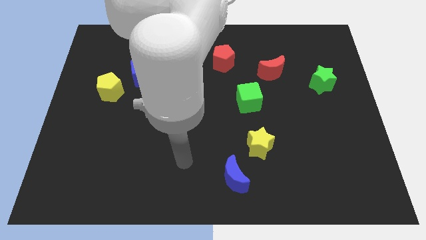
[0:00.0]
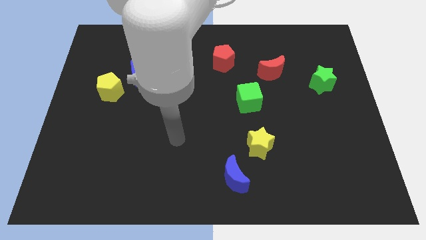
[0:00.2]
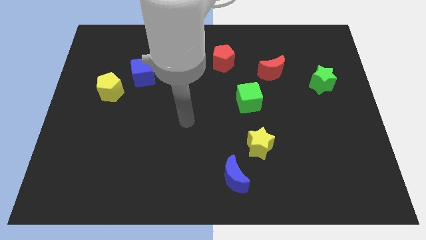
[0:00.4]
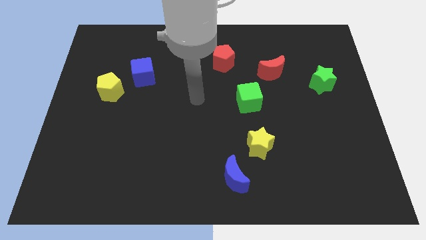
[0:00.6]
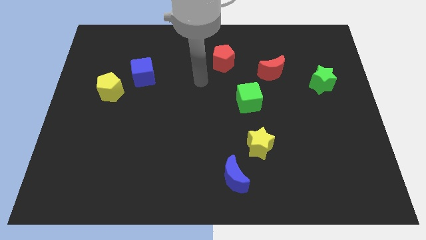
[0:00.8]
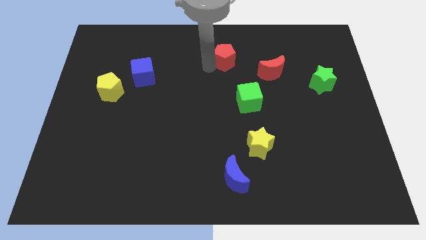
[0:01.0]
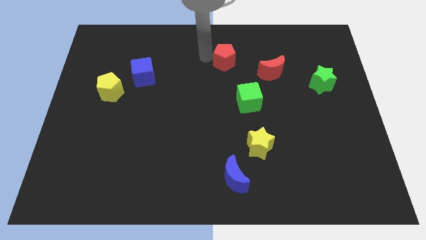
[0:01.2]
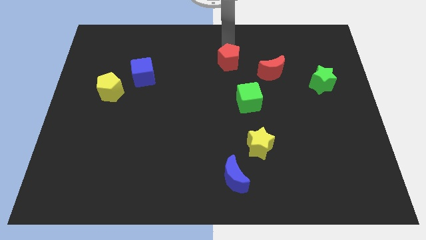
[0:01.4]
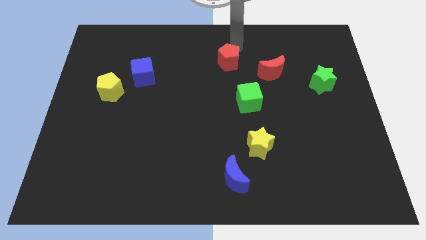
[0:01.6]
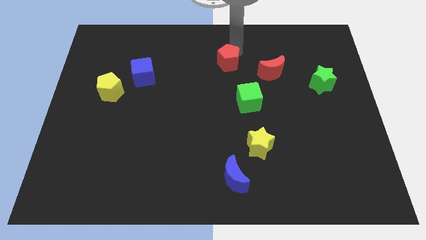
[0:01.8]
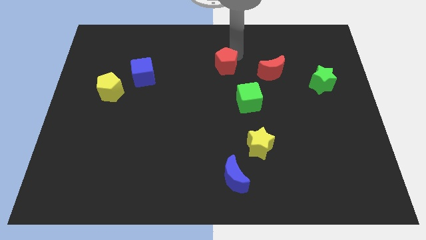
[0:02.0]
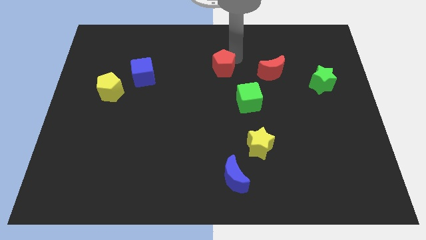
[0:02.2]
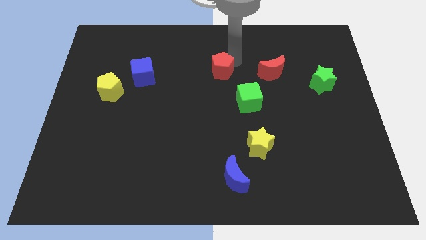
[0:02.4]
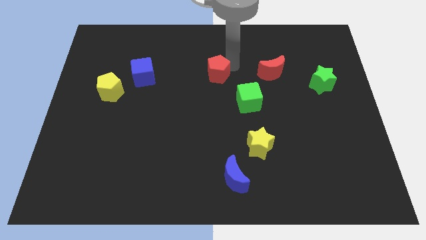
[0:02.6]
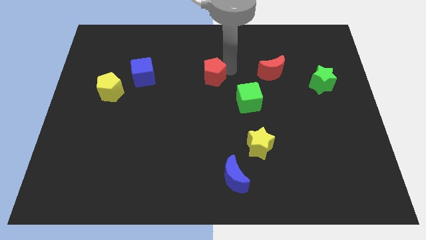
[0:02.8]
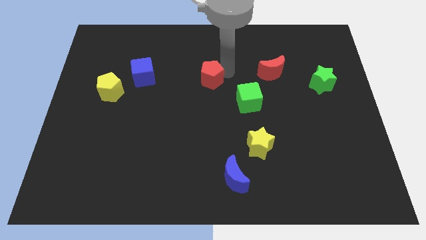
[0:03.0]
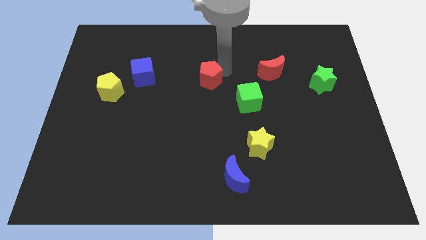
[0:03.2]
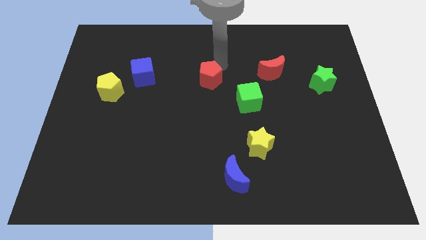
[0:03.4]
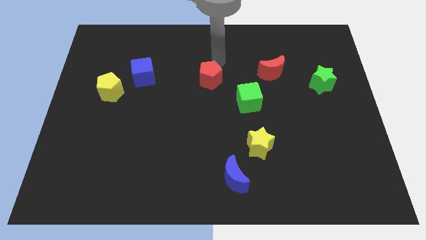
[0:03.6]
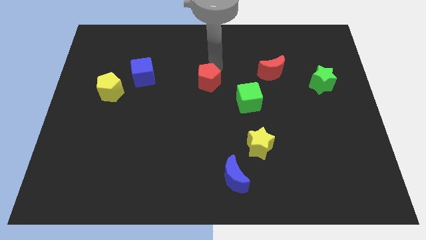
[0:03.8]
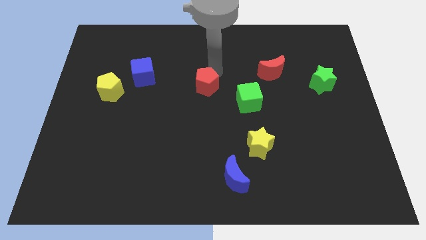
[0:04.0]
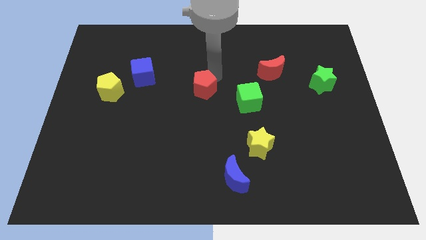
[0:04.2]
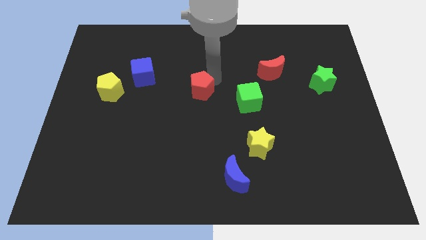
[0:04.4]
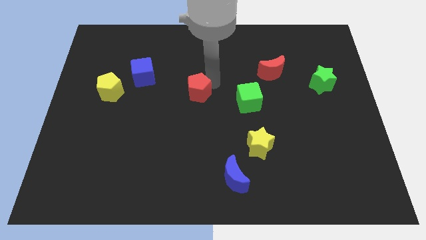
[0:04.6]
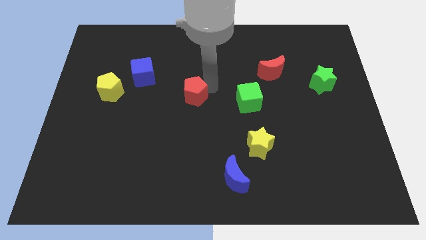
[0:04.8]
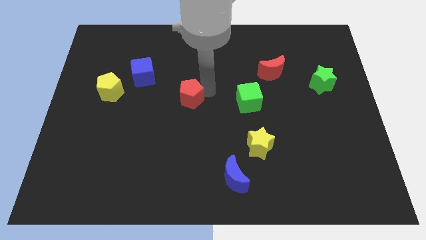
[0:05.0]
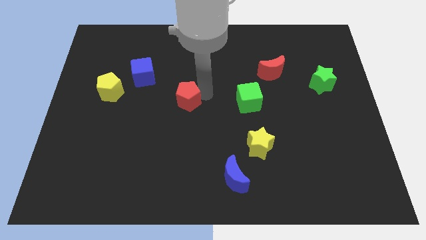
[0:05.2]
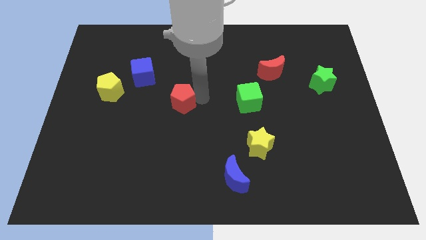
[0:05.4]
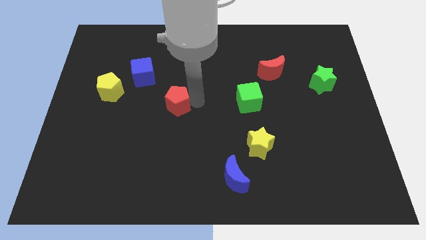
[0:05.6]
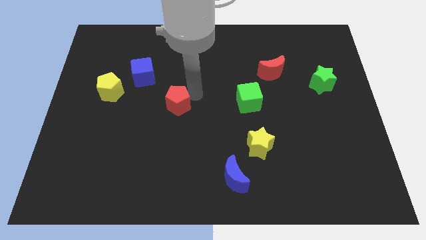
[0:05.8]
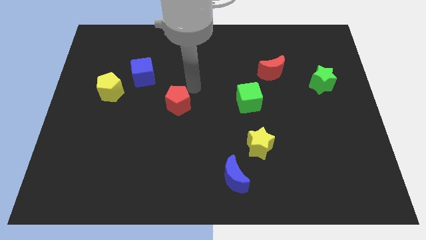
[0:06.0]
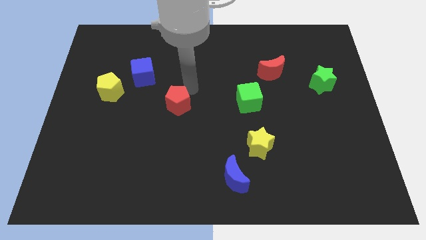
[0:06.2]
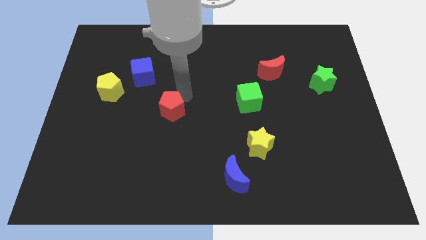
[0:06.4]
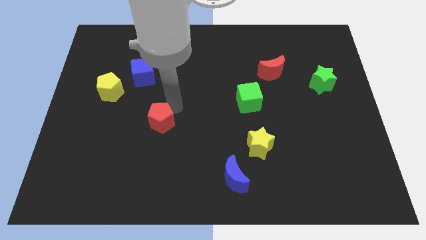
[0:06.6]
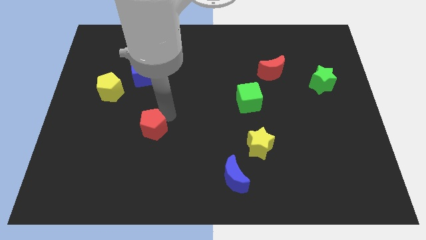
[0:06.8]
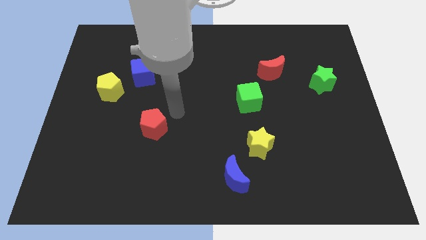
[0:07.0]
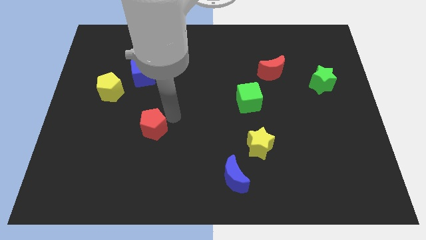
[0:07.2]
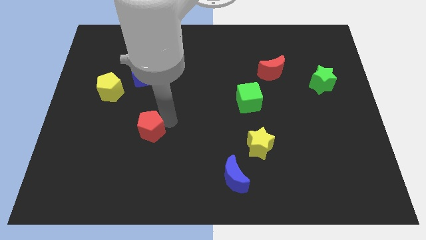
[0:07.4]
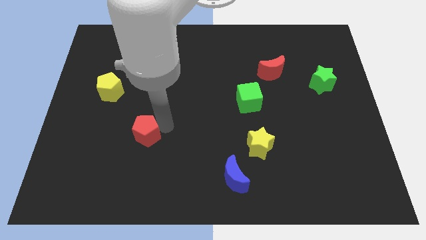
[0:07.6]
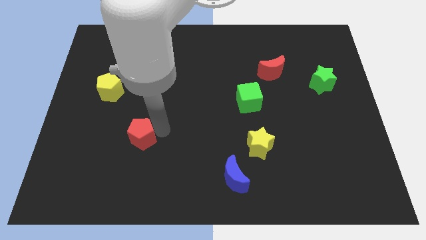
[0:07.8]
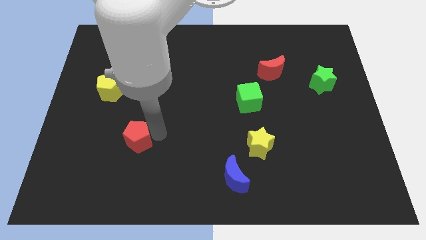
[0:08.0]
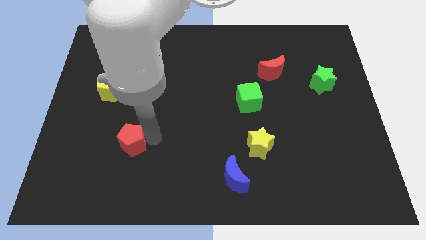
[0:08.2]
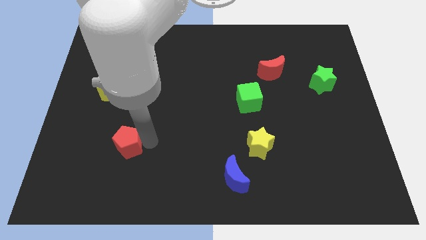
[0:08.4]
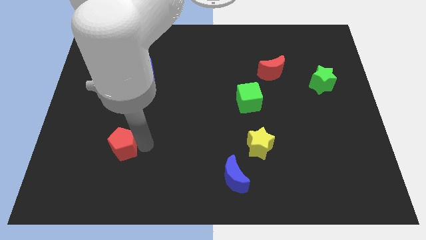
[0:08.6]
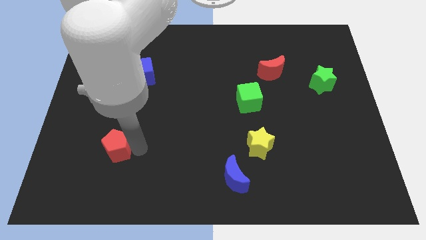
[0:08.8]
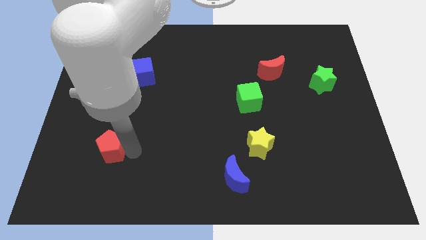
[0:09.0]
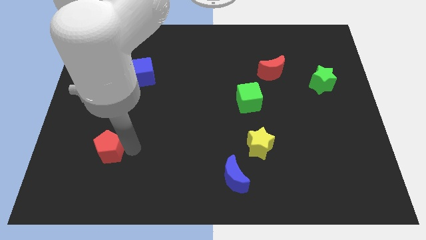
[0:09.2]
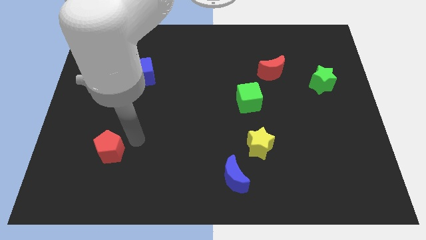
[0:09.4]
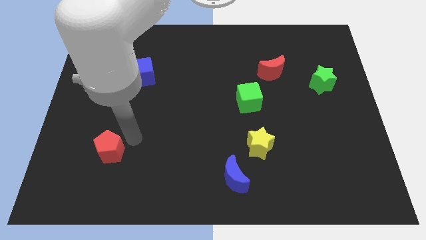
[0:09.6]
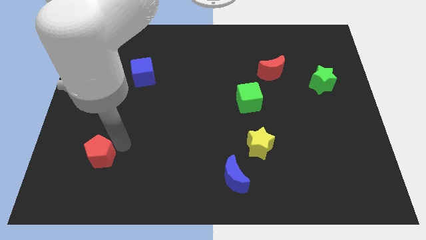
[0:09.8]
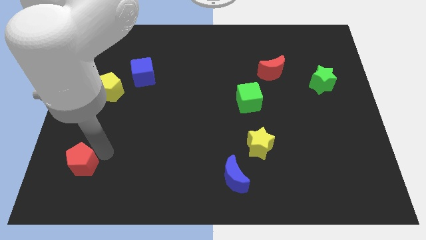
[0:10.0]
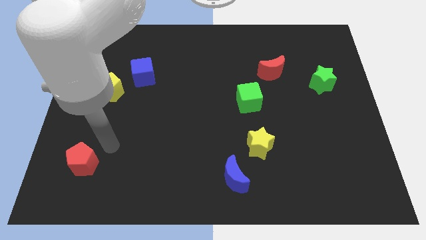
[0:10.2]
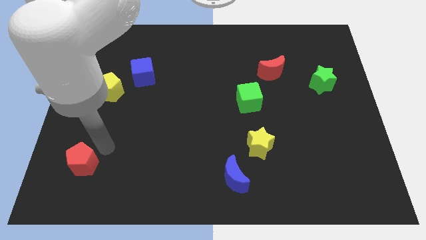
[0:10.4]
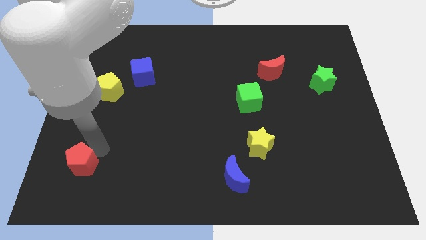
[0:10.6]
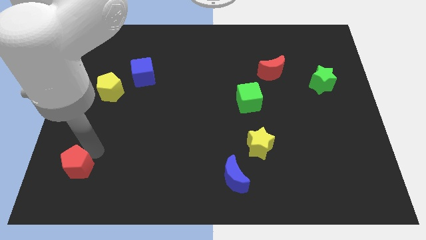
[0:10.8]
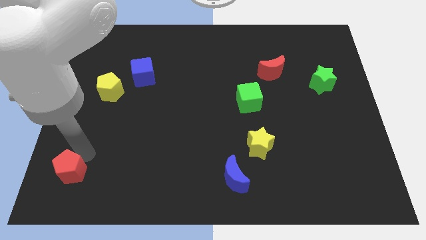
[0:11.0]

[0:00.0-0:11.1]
slide the red pentagon to the bottom left of the board

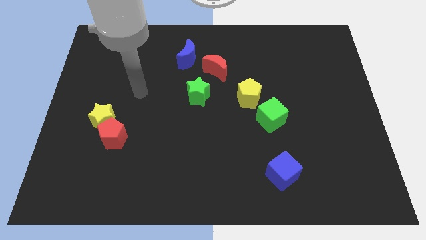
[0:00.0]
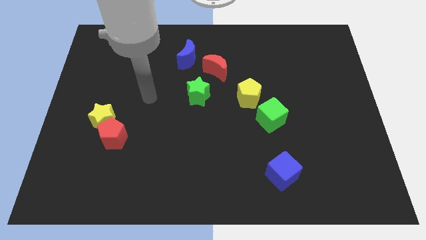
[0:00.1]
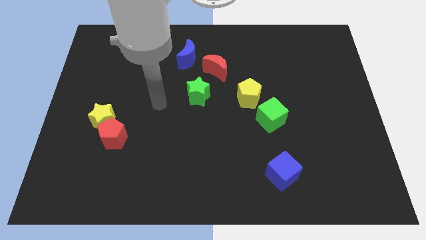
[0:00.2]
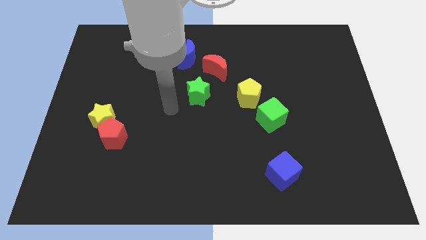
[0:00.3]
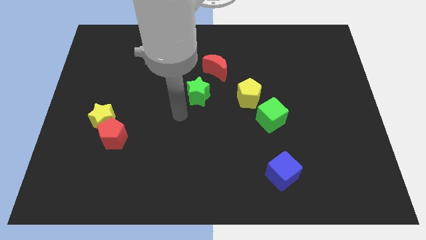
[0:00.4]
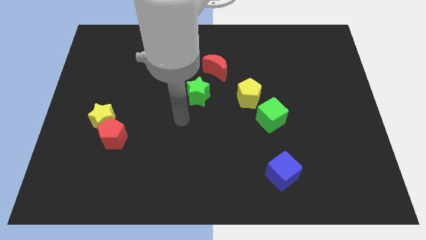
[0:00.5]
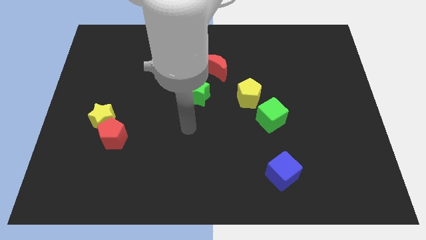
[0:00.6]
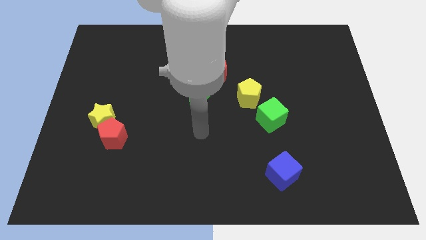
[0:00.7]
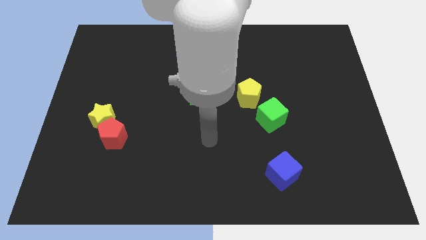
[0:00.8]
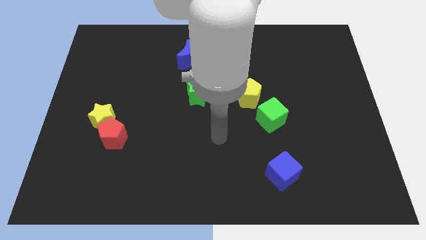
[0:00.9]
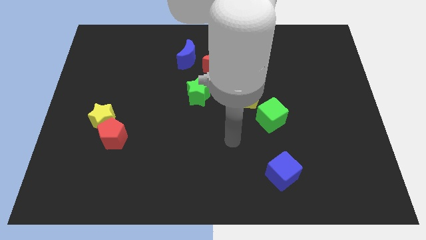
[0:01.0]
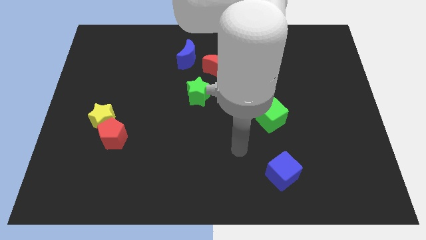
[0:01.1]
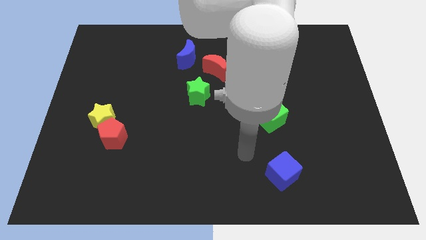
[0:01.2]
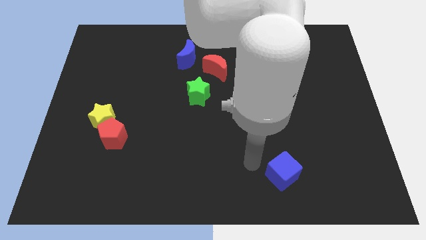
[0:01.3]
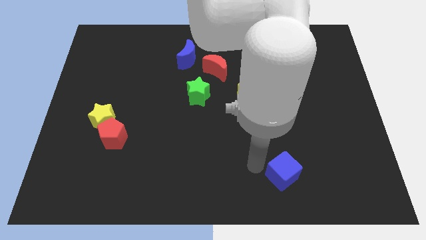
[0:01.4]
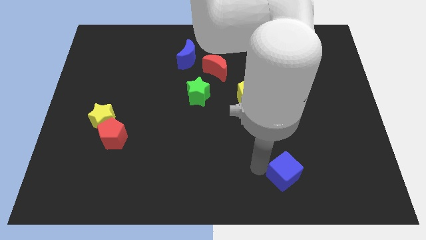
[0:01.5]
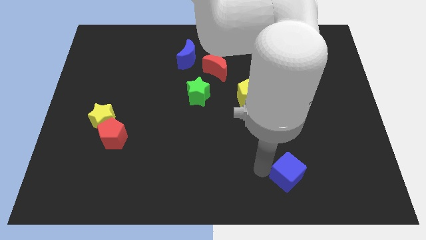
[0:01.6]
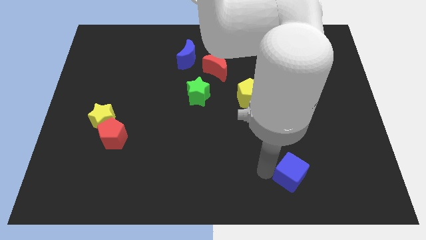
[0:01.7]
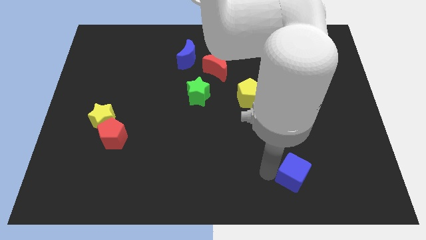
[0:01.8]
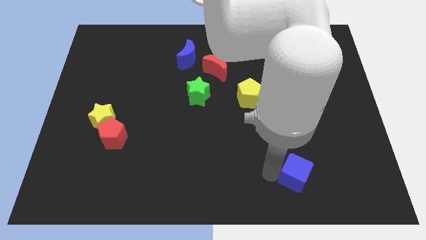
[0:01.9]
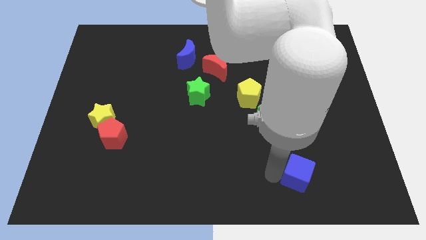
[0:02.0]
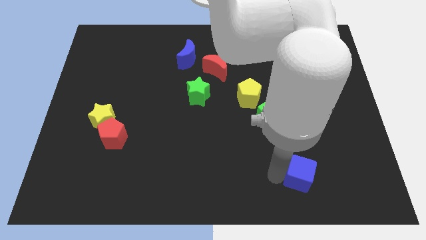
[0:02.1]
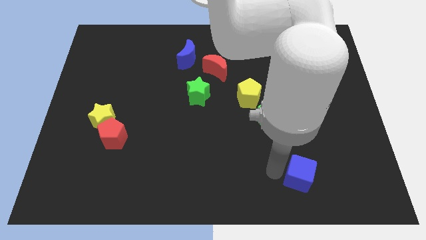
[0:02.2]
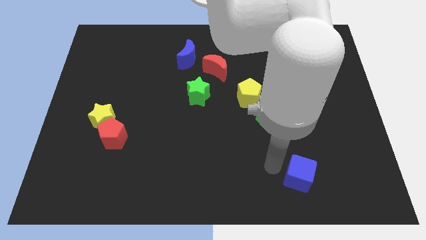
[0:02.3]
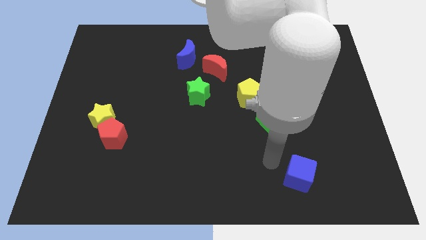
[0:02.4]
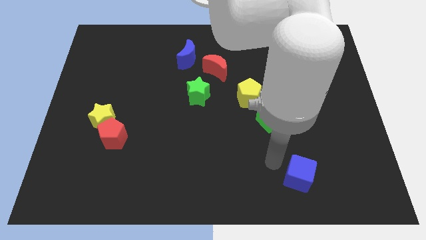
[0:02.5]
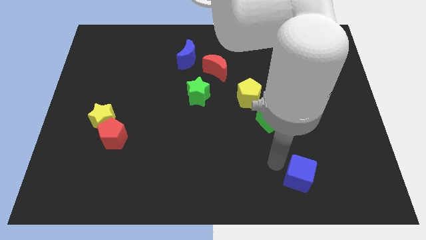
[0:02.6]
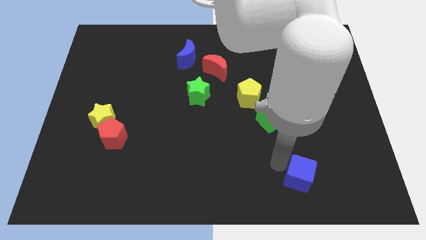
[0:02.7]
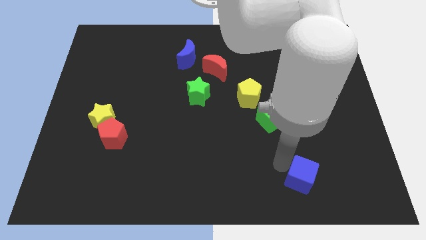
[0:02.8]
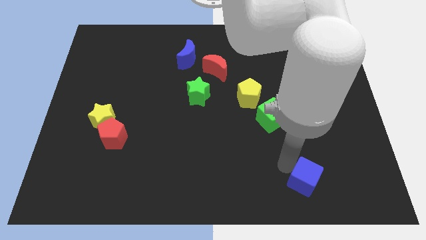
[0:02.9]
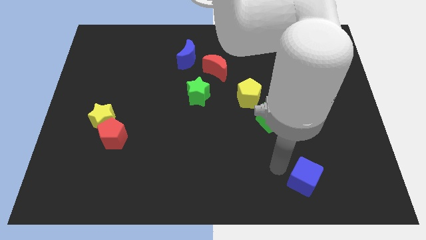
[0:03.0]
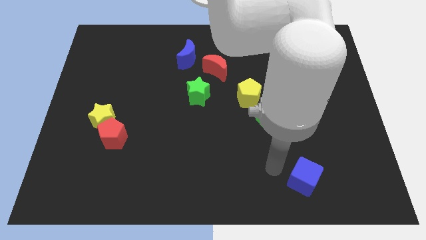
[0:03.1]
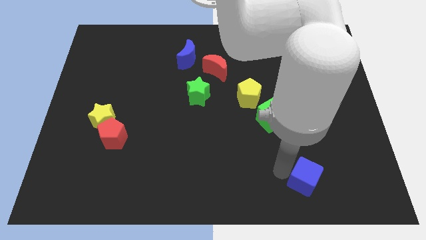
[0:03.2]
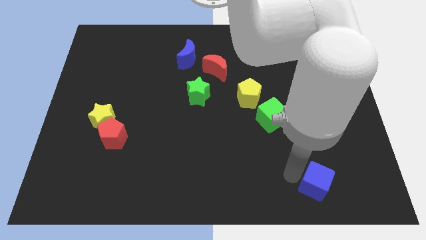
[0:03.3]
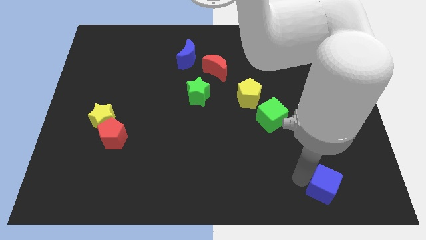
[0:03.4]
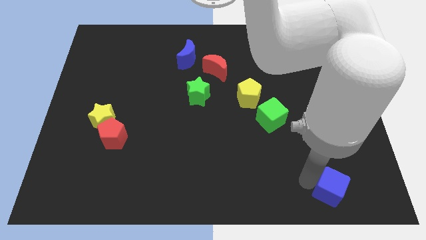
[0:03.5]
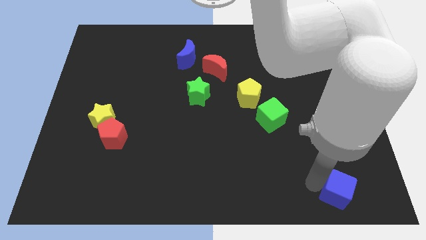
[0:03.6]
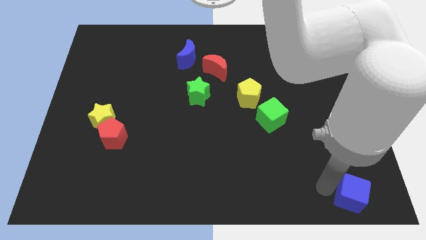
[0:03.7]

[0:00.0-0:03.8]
move the blue cube to the bottom right corner
